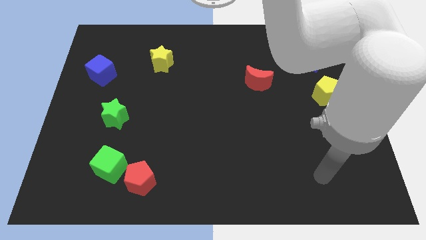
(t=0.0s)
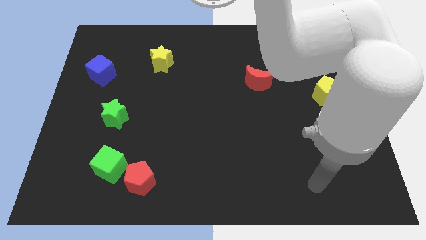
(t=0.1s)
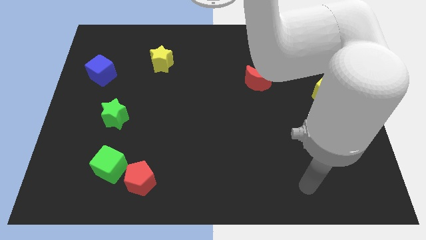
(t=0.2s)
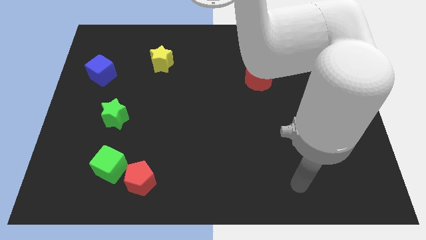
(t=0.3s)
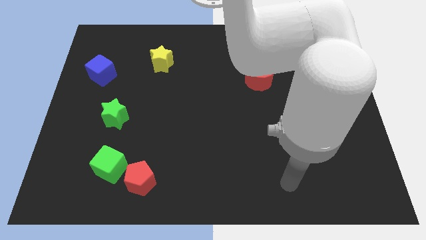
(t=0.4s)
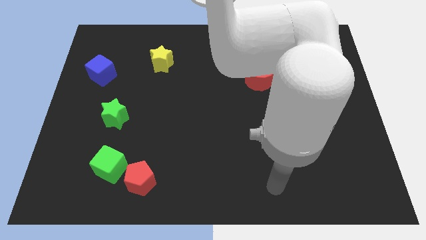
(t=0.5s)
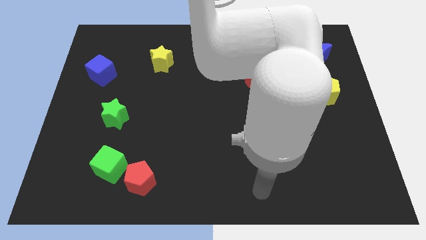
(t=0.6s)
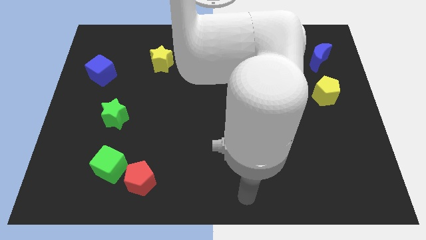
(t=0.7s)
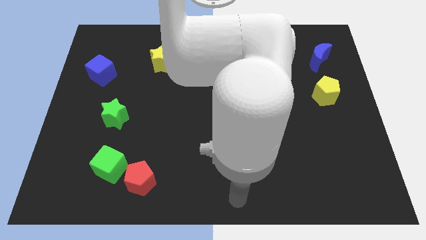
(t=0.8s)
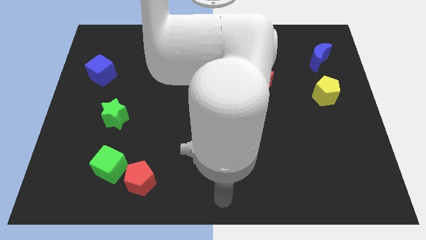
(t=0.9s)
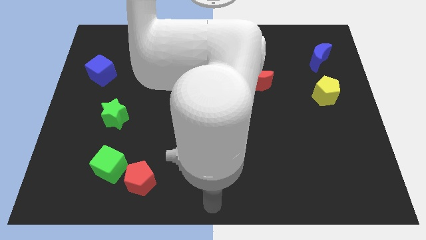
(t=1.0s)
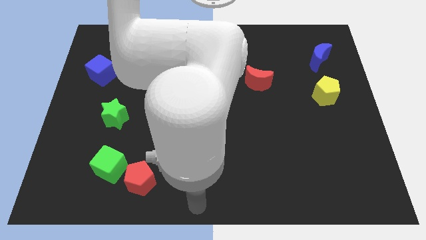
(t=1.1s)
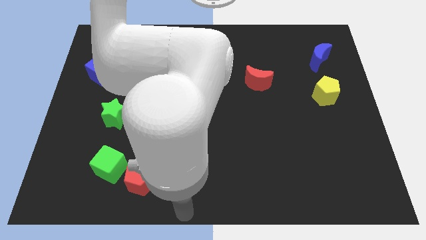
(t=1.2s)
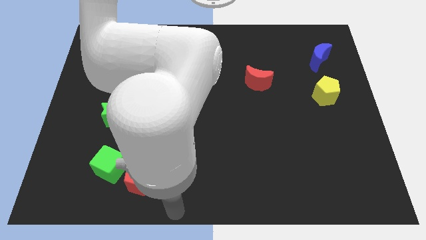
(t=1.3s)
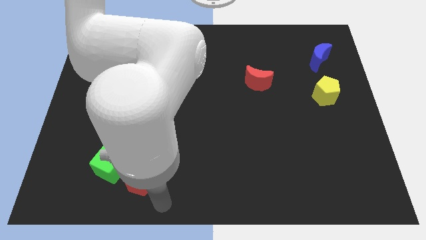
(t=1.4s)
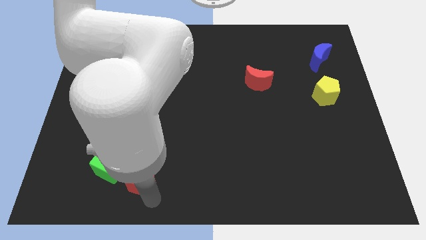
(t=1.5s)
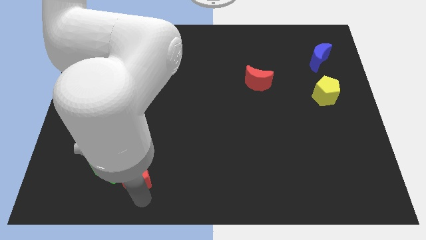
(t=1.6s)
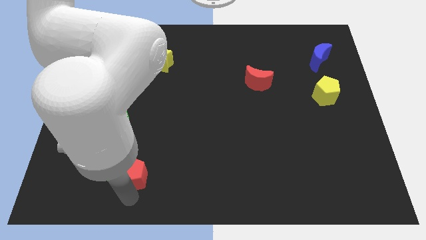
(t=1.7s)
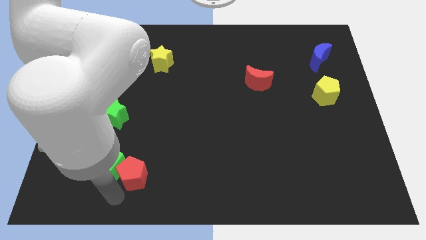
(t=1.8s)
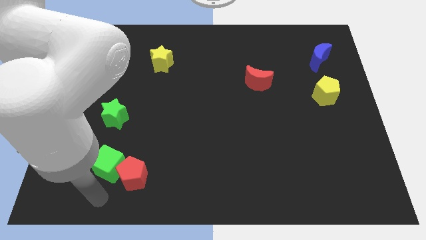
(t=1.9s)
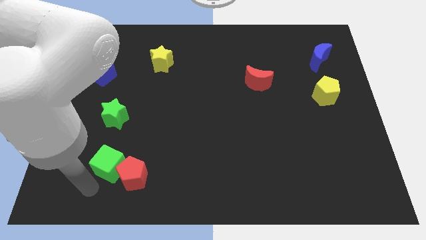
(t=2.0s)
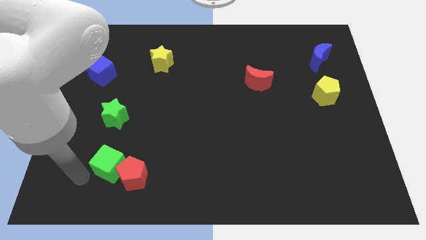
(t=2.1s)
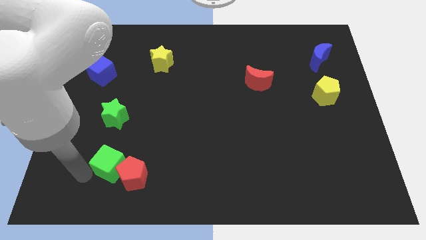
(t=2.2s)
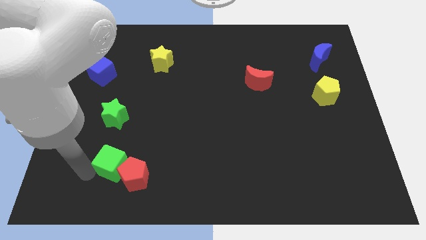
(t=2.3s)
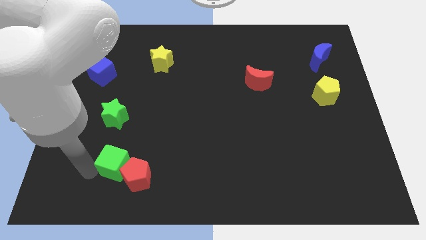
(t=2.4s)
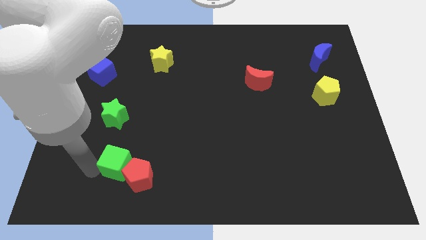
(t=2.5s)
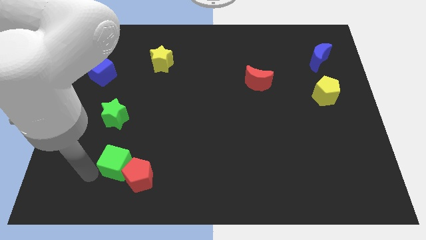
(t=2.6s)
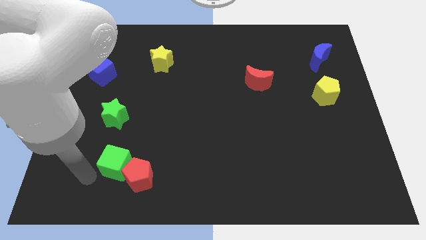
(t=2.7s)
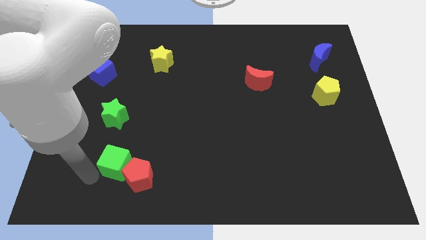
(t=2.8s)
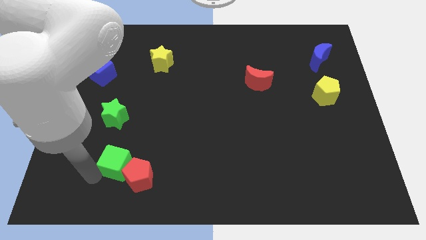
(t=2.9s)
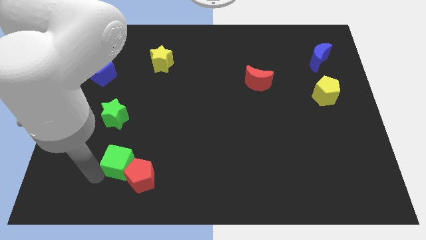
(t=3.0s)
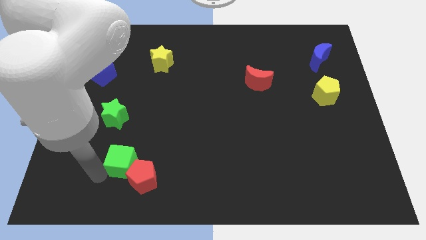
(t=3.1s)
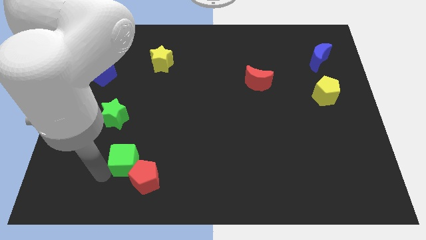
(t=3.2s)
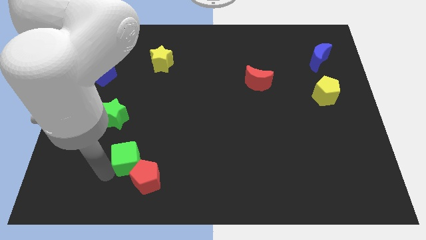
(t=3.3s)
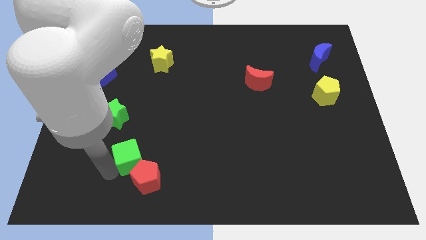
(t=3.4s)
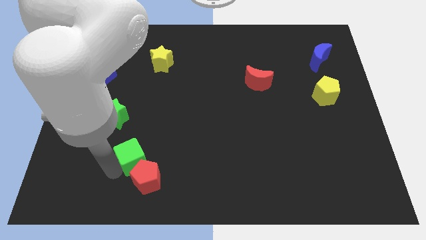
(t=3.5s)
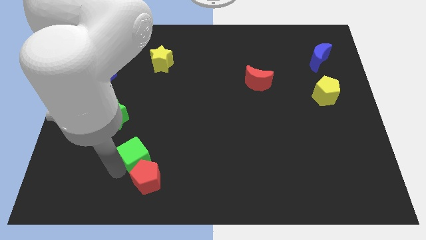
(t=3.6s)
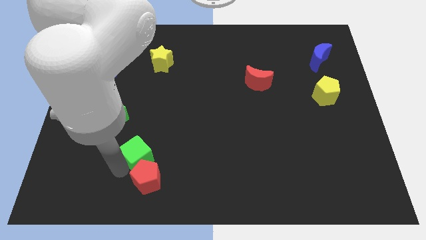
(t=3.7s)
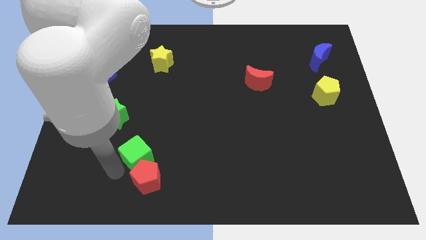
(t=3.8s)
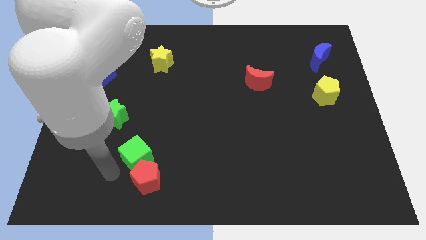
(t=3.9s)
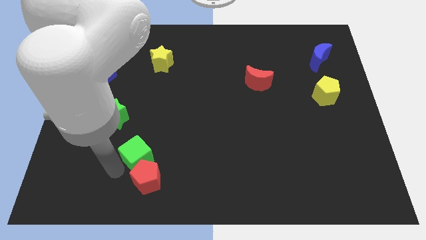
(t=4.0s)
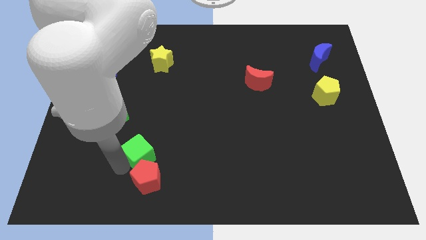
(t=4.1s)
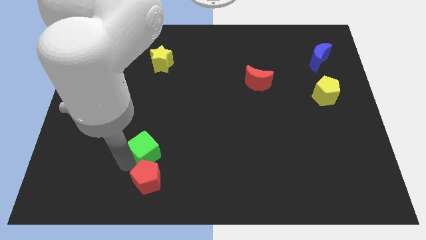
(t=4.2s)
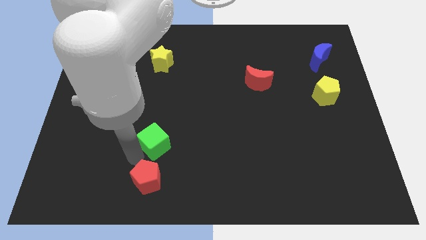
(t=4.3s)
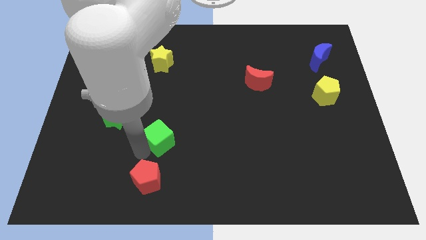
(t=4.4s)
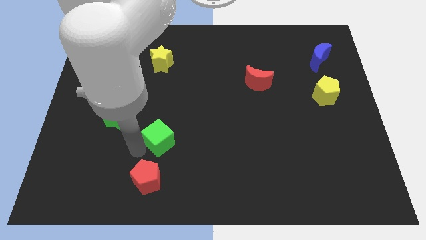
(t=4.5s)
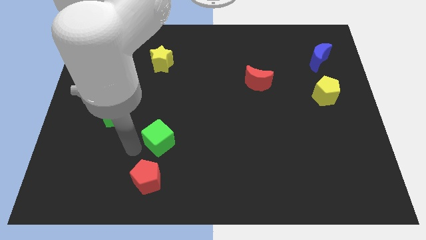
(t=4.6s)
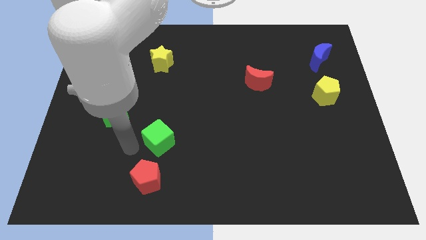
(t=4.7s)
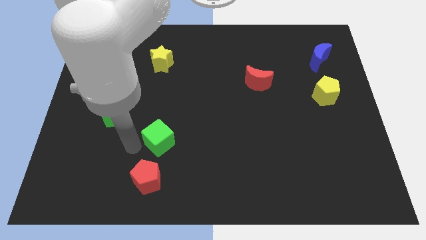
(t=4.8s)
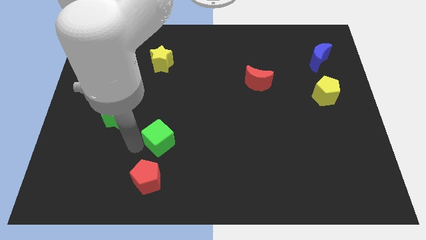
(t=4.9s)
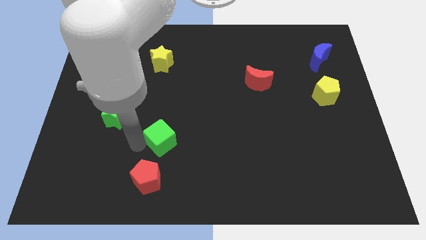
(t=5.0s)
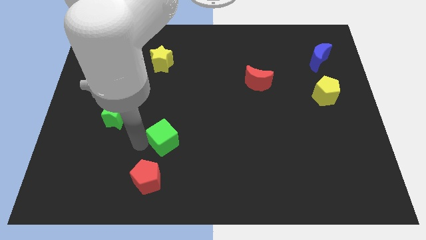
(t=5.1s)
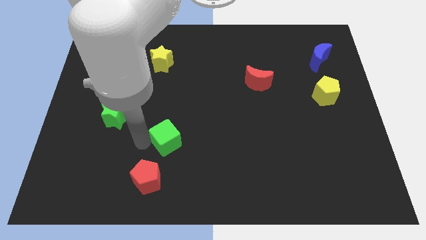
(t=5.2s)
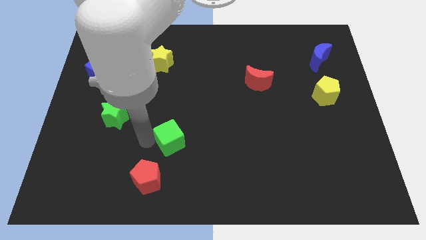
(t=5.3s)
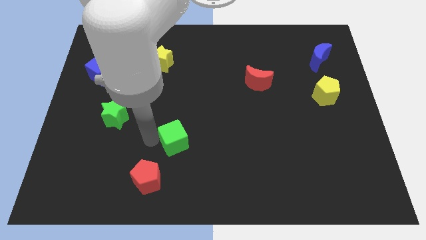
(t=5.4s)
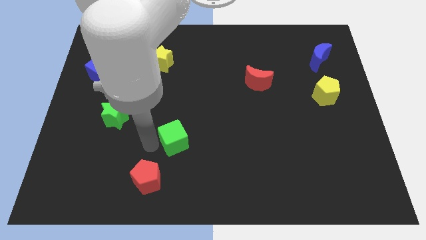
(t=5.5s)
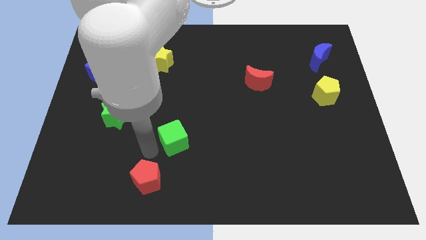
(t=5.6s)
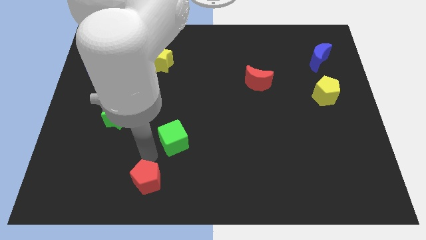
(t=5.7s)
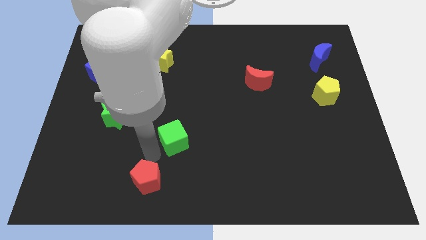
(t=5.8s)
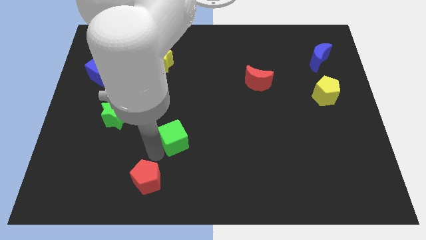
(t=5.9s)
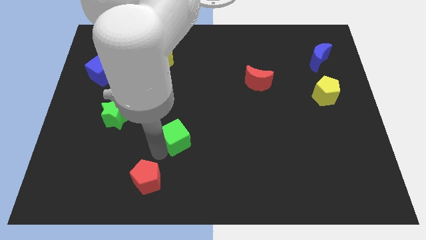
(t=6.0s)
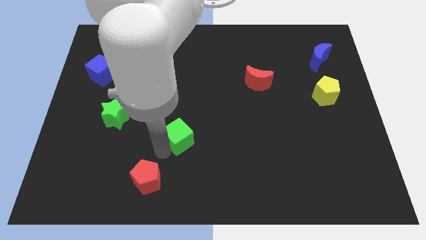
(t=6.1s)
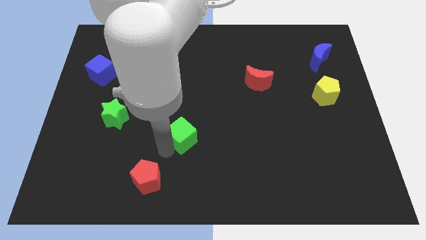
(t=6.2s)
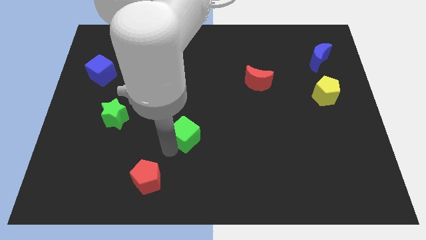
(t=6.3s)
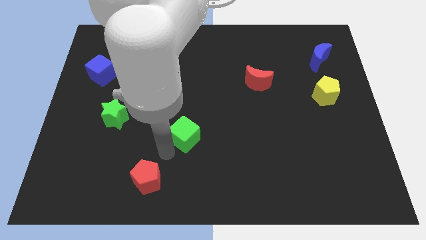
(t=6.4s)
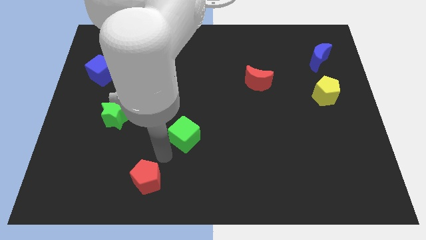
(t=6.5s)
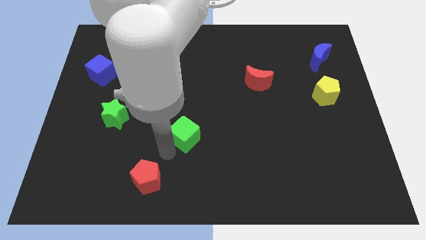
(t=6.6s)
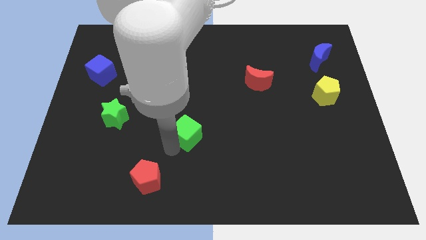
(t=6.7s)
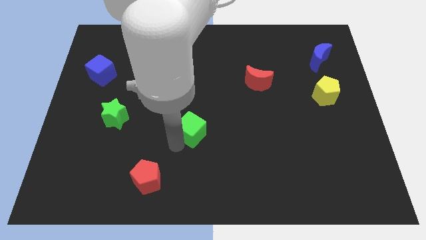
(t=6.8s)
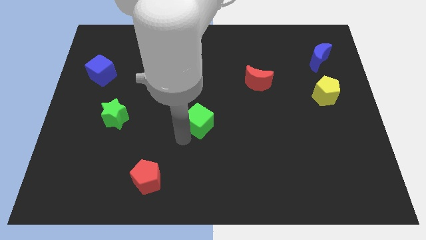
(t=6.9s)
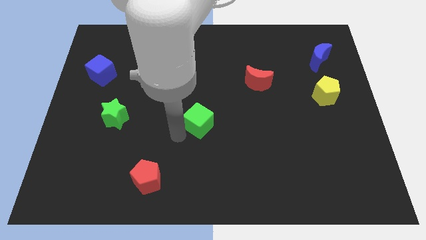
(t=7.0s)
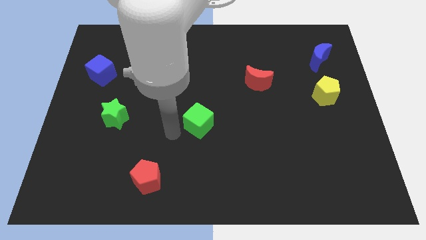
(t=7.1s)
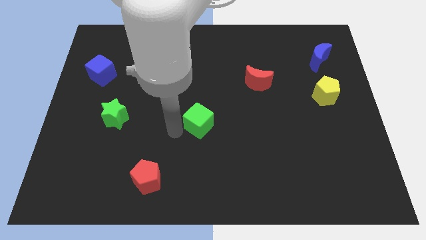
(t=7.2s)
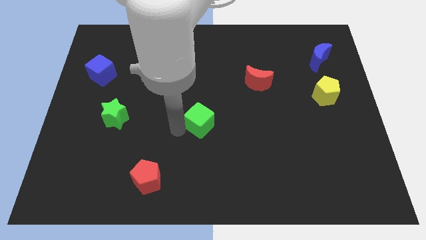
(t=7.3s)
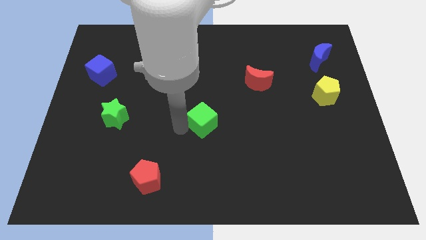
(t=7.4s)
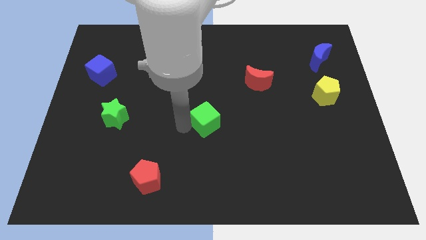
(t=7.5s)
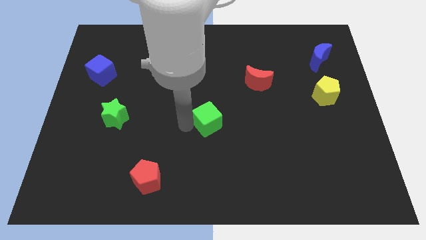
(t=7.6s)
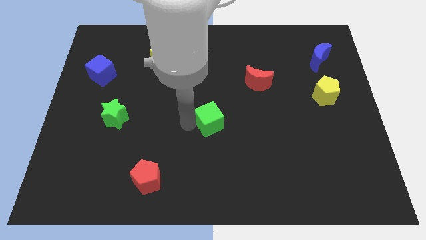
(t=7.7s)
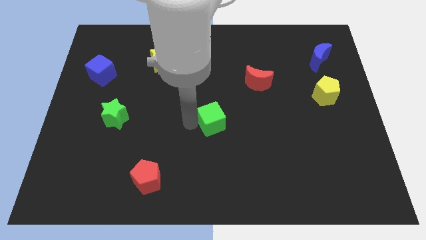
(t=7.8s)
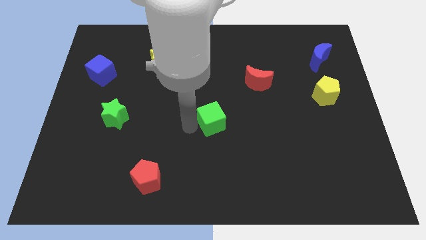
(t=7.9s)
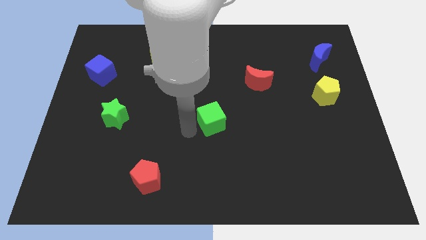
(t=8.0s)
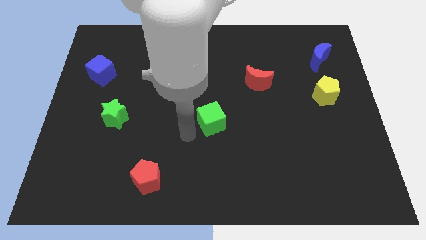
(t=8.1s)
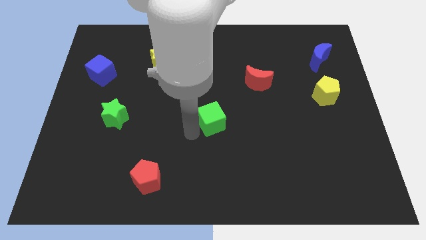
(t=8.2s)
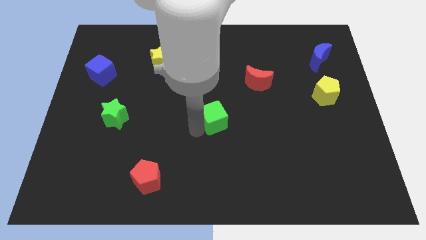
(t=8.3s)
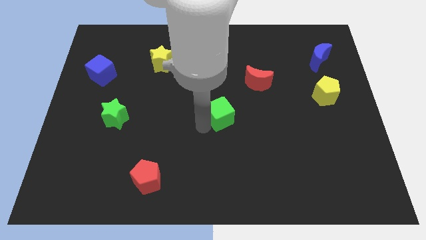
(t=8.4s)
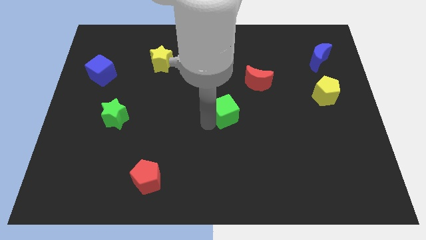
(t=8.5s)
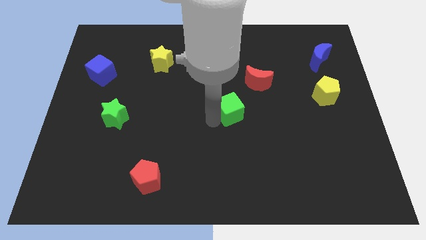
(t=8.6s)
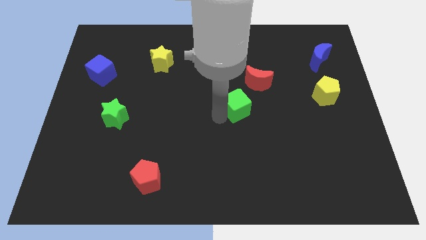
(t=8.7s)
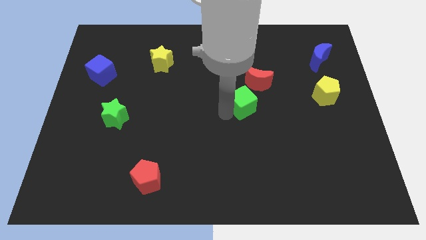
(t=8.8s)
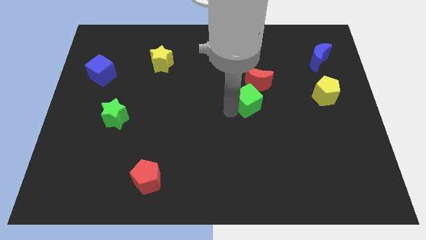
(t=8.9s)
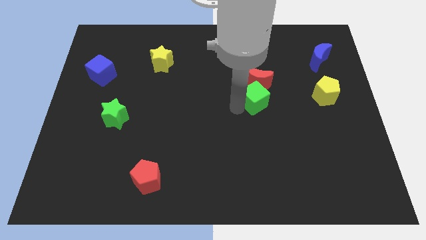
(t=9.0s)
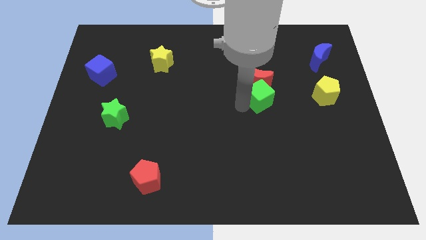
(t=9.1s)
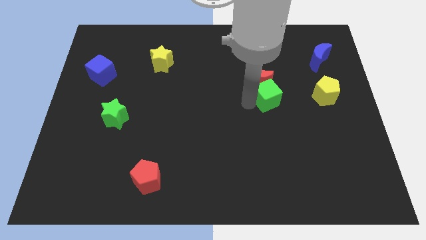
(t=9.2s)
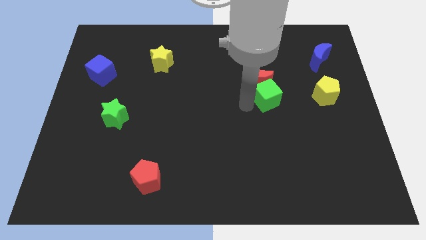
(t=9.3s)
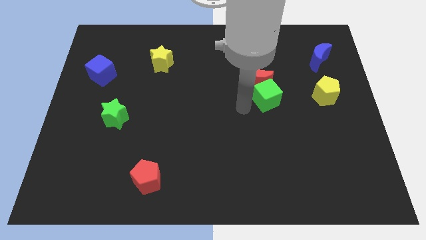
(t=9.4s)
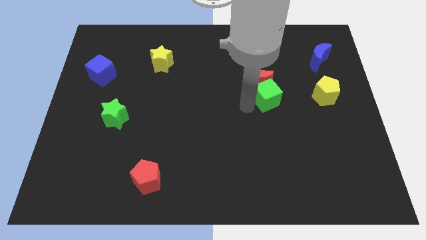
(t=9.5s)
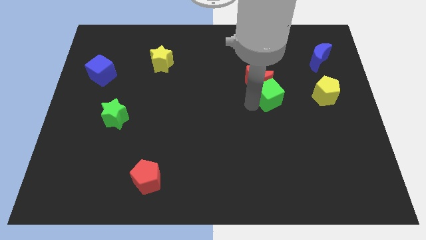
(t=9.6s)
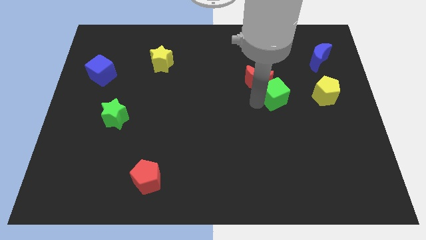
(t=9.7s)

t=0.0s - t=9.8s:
push the green cube to the right of the red moon
